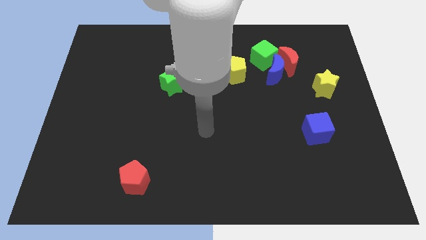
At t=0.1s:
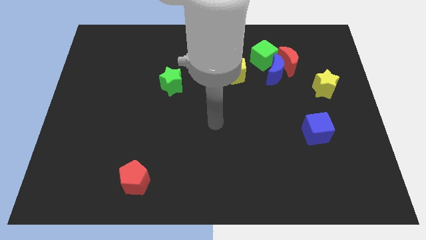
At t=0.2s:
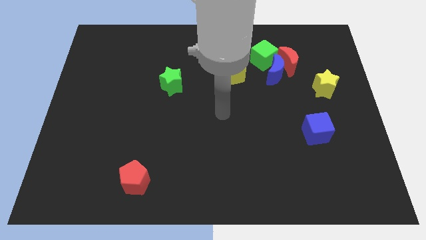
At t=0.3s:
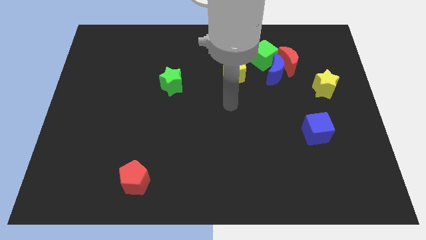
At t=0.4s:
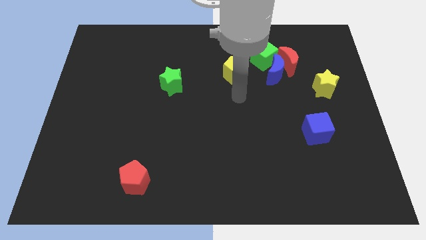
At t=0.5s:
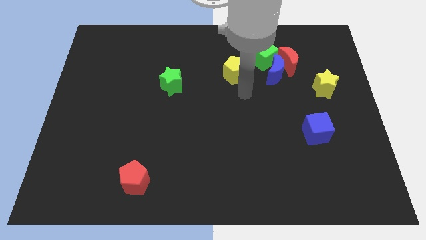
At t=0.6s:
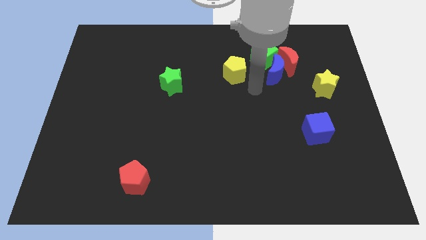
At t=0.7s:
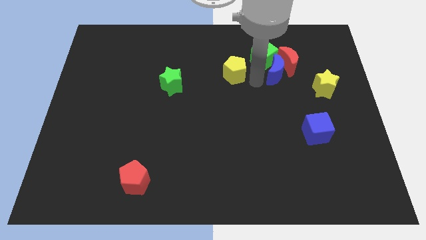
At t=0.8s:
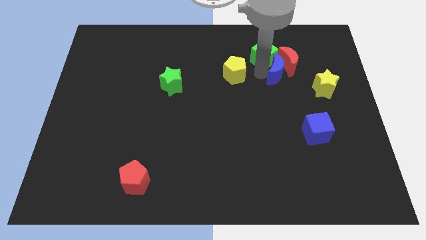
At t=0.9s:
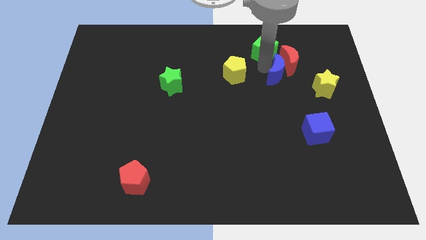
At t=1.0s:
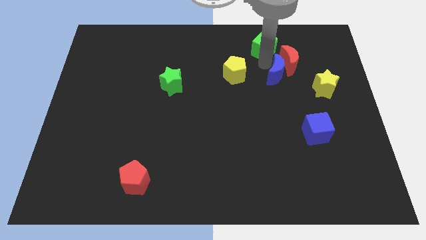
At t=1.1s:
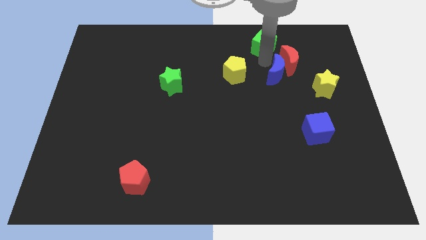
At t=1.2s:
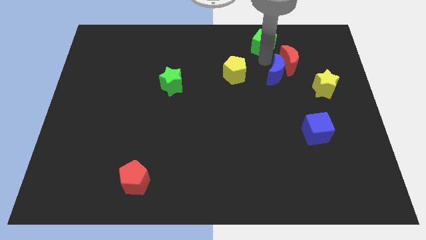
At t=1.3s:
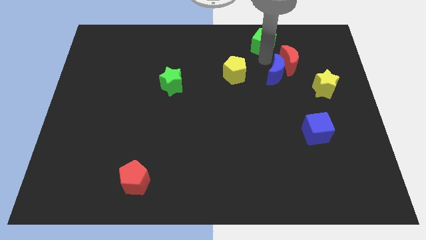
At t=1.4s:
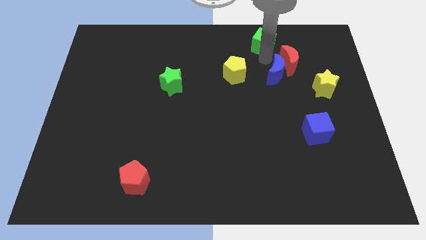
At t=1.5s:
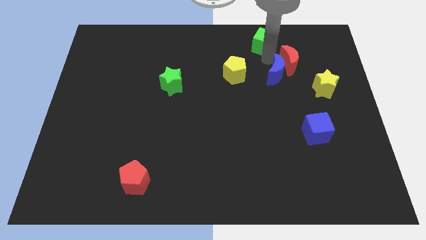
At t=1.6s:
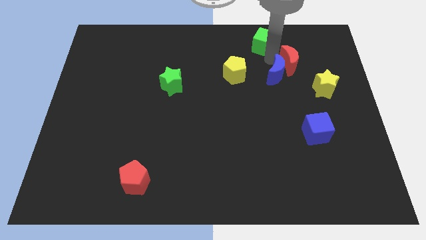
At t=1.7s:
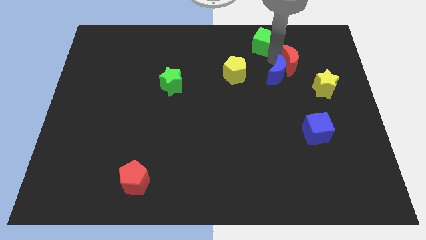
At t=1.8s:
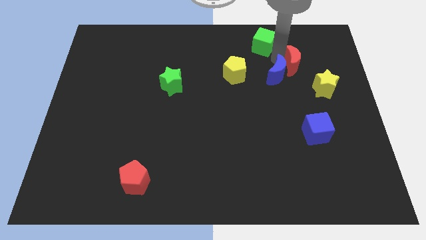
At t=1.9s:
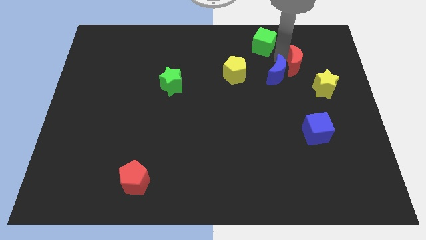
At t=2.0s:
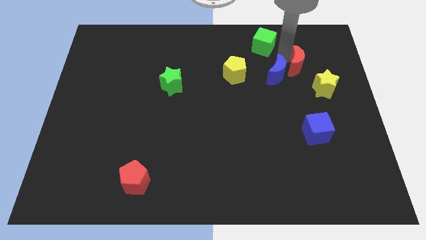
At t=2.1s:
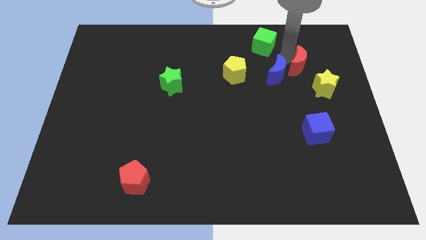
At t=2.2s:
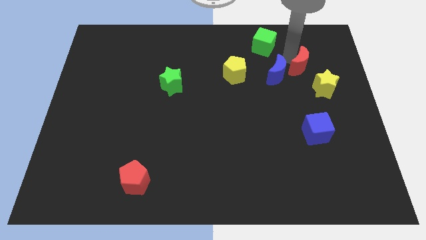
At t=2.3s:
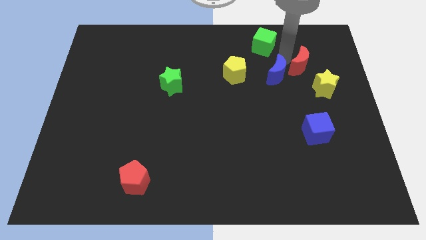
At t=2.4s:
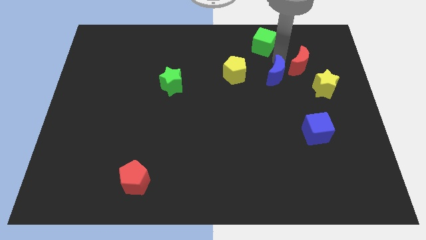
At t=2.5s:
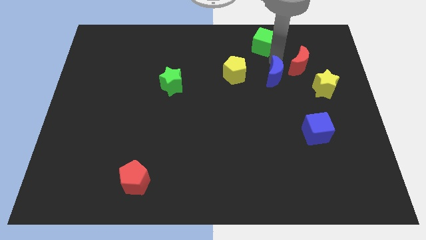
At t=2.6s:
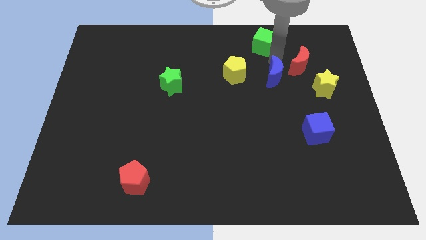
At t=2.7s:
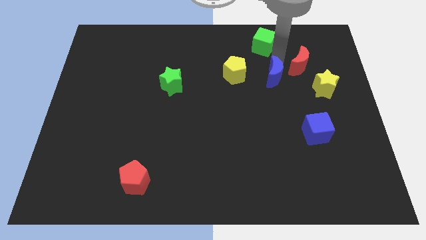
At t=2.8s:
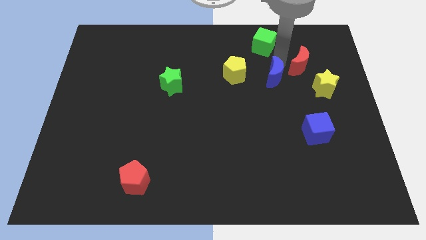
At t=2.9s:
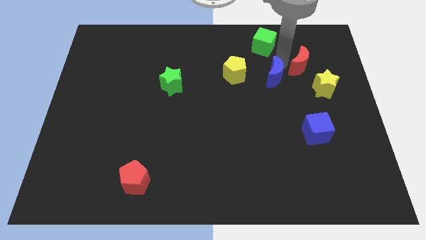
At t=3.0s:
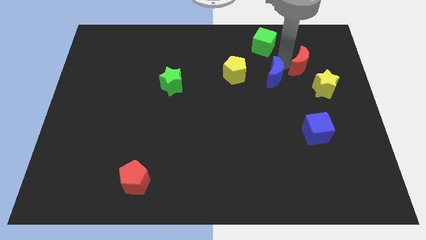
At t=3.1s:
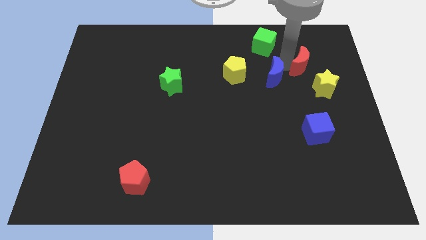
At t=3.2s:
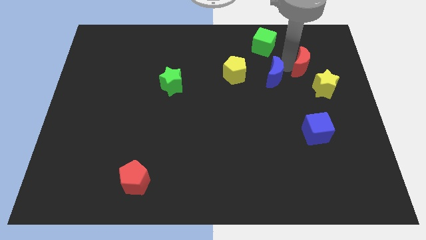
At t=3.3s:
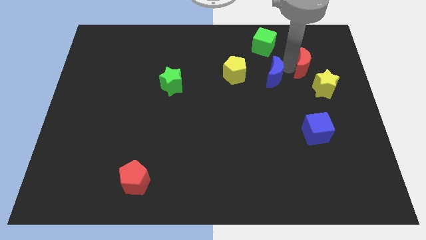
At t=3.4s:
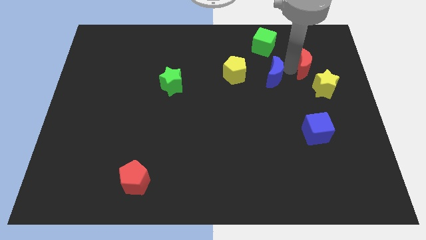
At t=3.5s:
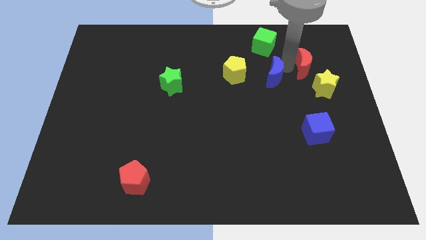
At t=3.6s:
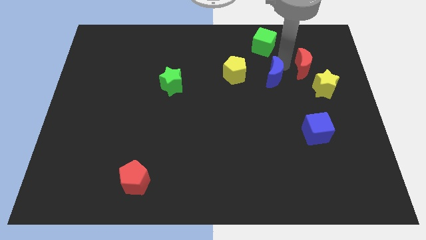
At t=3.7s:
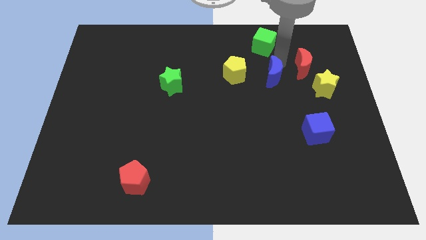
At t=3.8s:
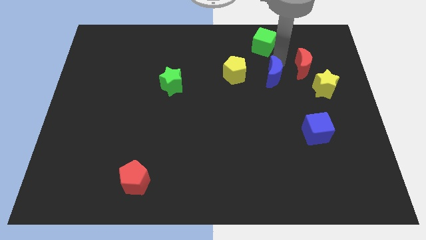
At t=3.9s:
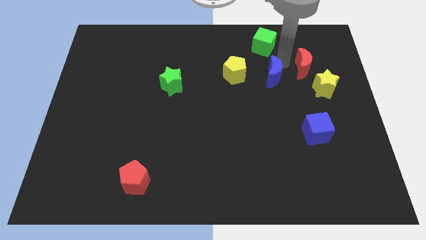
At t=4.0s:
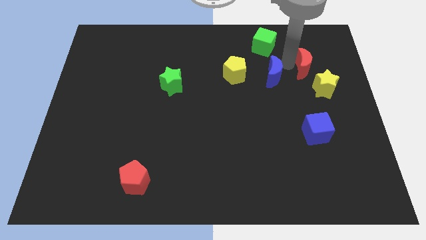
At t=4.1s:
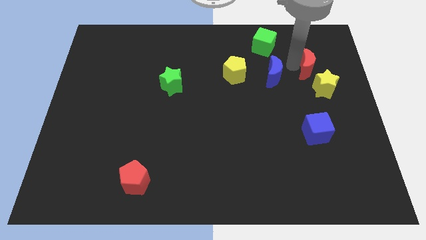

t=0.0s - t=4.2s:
separate the red moon from the blue moon and green cube

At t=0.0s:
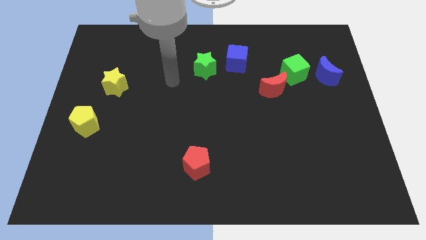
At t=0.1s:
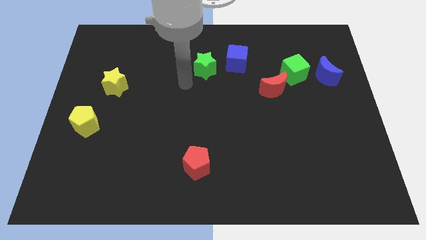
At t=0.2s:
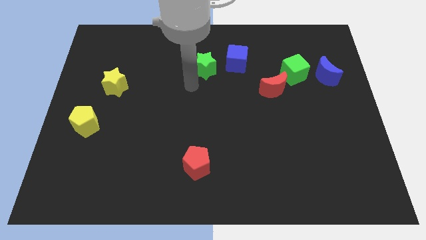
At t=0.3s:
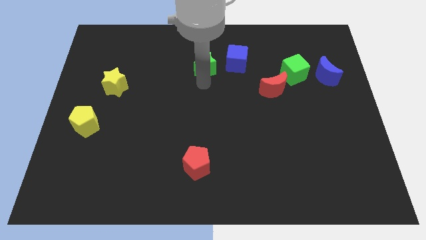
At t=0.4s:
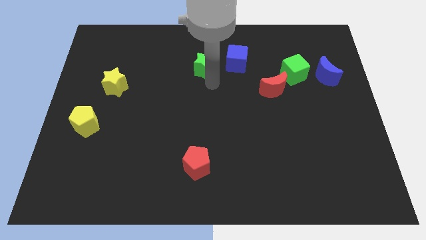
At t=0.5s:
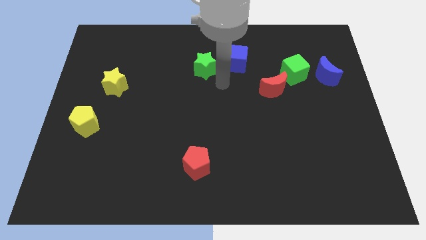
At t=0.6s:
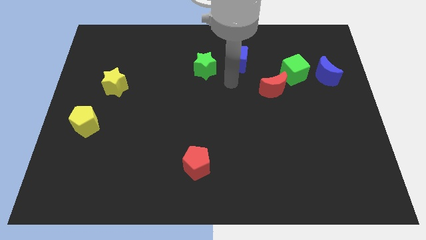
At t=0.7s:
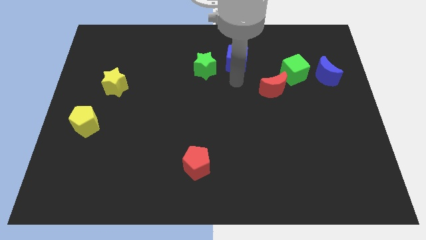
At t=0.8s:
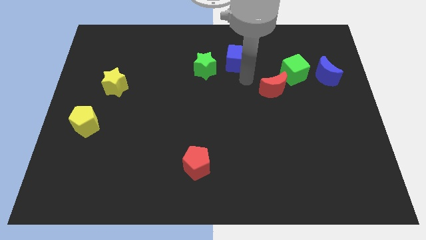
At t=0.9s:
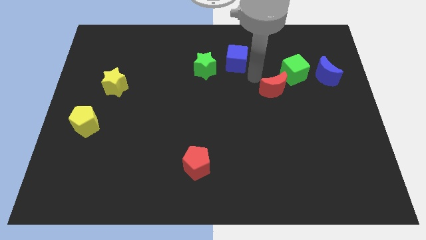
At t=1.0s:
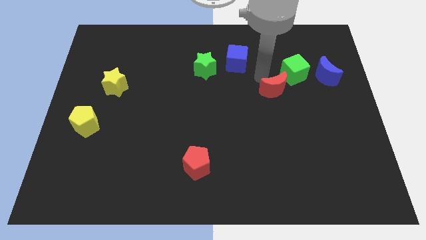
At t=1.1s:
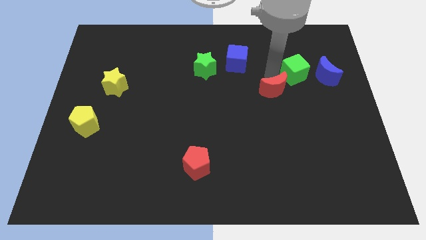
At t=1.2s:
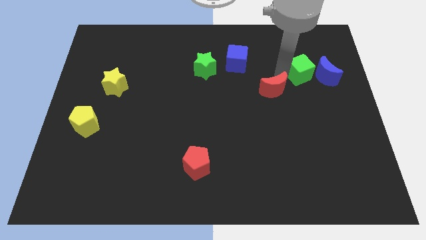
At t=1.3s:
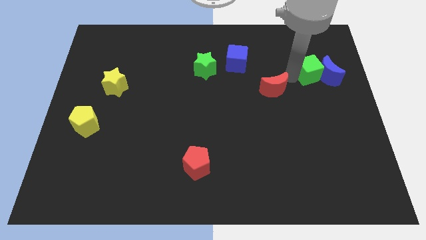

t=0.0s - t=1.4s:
separate the red moon from the green cube

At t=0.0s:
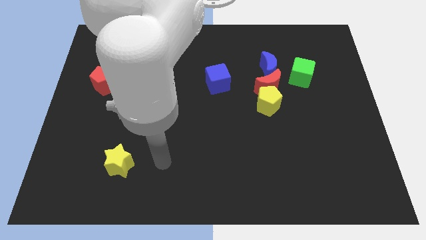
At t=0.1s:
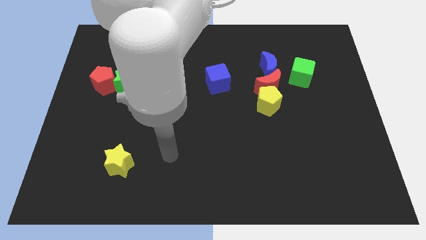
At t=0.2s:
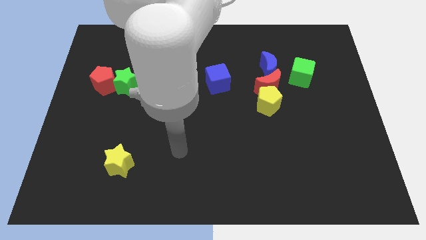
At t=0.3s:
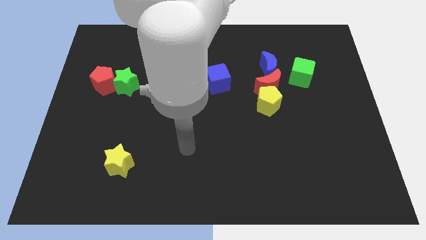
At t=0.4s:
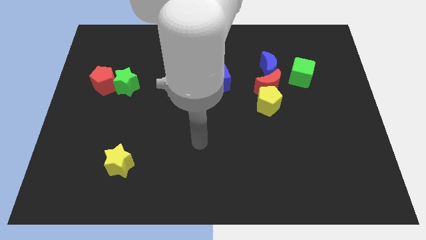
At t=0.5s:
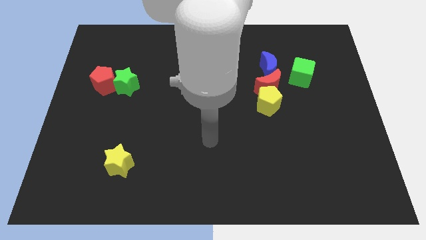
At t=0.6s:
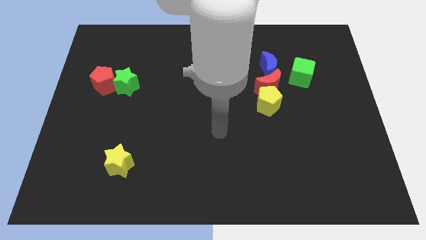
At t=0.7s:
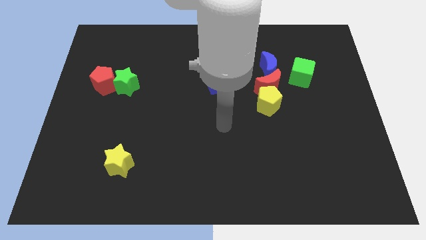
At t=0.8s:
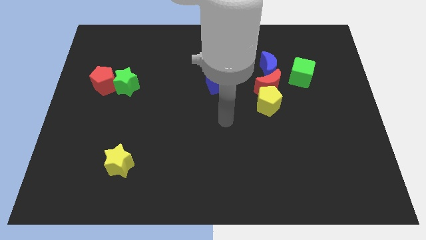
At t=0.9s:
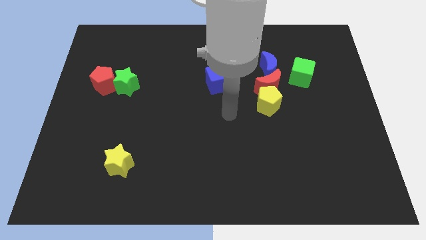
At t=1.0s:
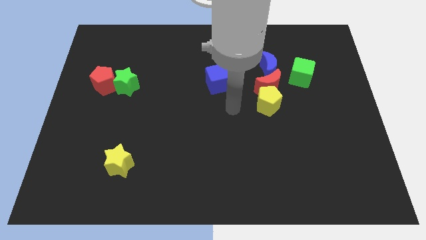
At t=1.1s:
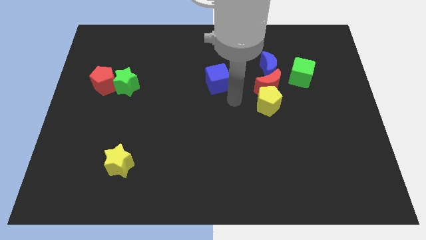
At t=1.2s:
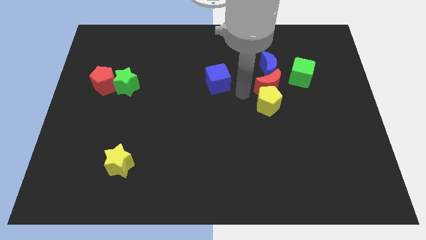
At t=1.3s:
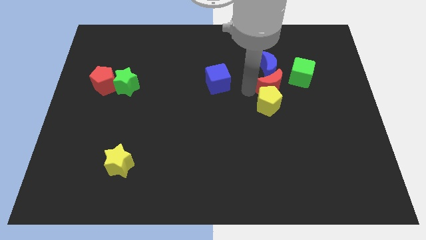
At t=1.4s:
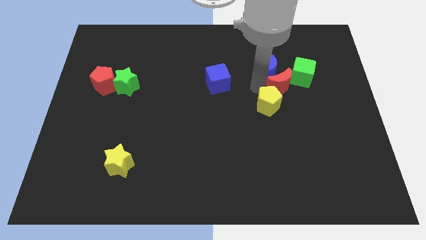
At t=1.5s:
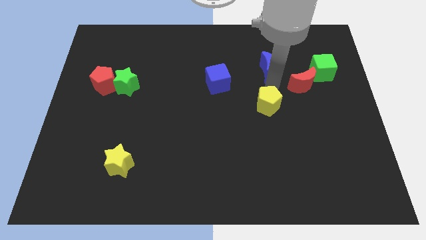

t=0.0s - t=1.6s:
separate the yellow pentagon from the red moon

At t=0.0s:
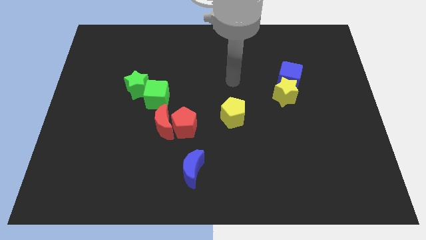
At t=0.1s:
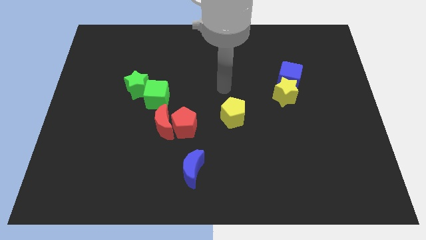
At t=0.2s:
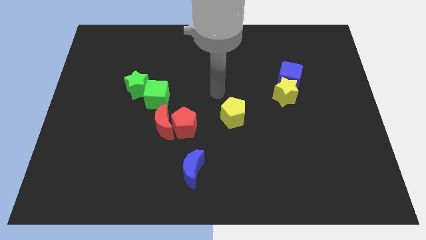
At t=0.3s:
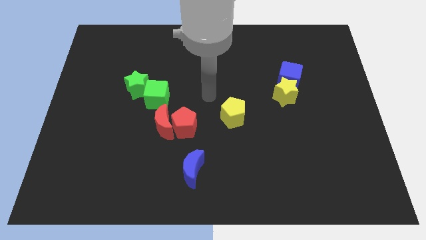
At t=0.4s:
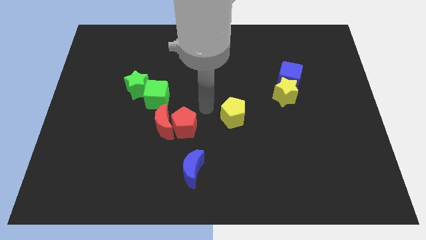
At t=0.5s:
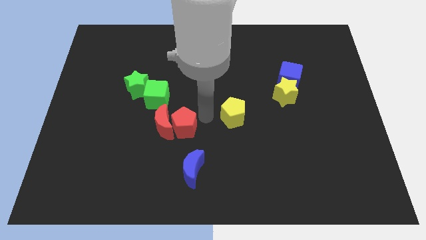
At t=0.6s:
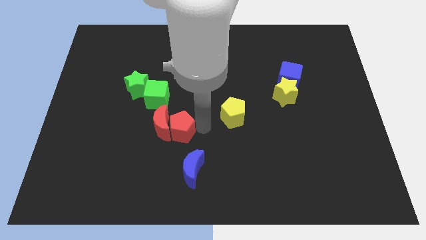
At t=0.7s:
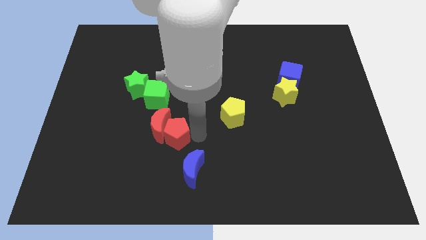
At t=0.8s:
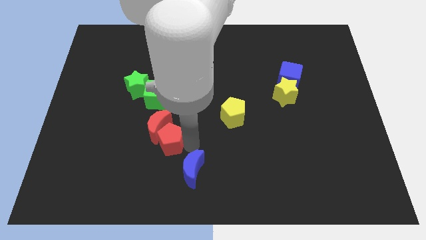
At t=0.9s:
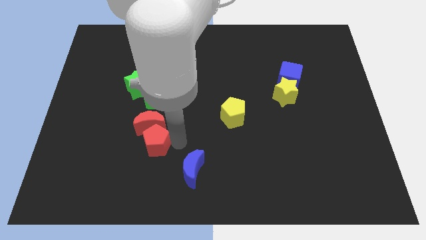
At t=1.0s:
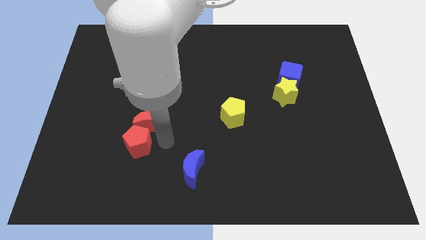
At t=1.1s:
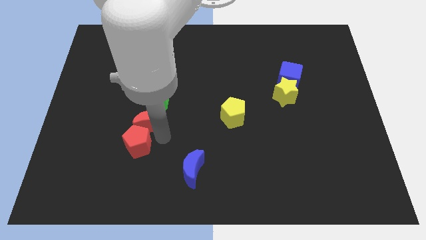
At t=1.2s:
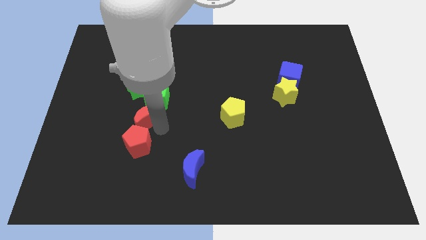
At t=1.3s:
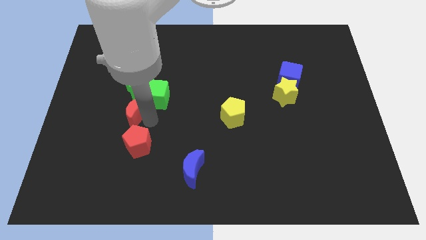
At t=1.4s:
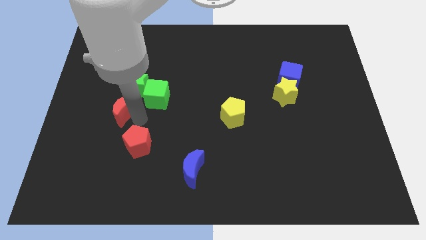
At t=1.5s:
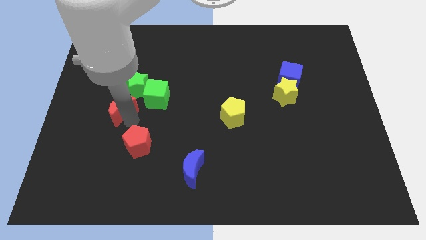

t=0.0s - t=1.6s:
move the red pentagon away from the red moon

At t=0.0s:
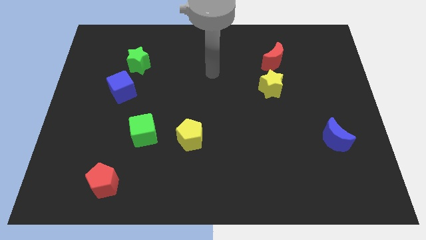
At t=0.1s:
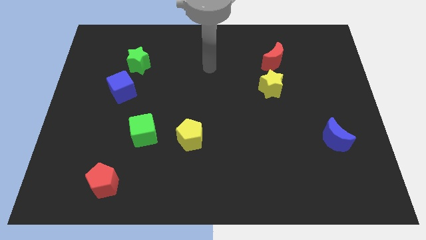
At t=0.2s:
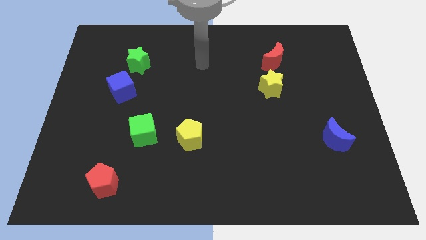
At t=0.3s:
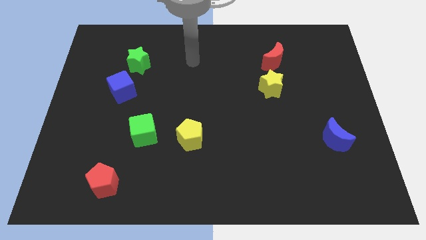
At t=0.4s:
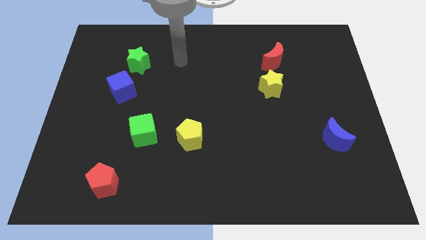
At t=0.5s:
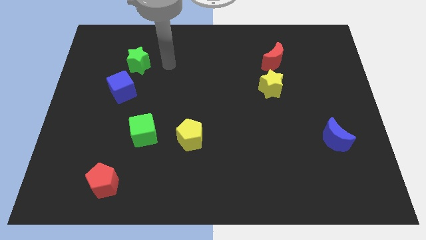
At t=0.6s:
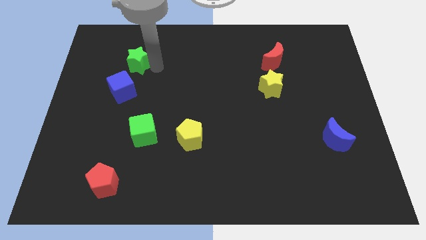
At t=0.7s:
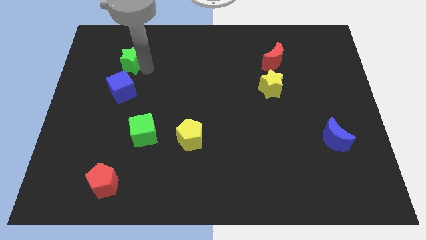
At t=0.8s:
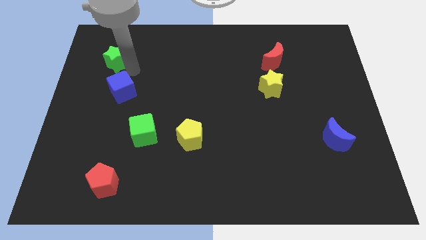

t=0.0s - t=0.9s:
pull the blue cube apart from the green star
